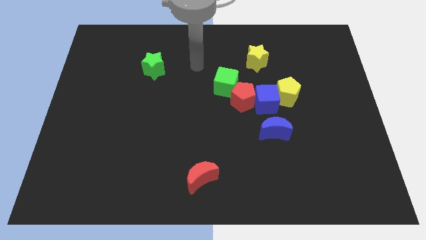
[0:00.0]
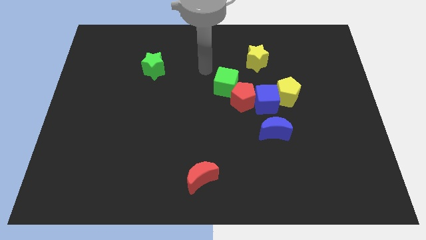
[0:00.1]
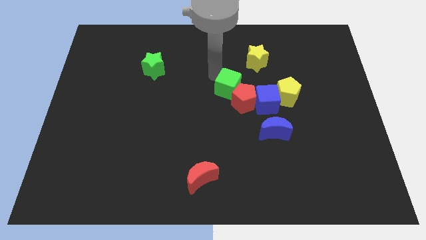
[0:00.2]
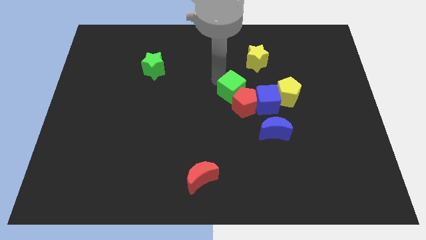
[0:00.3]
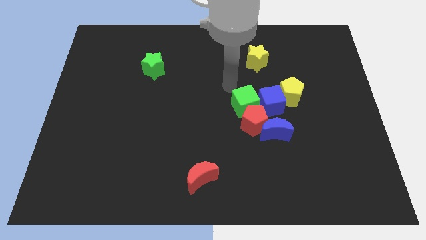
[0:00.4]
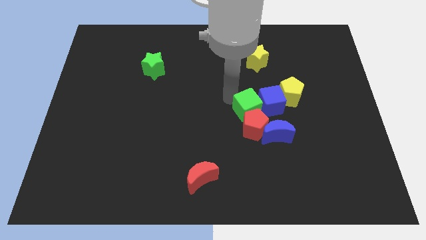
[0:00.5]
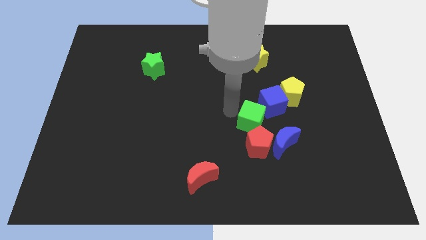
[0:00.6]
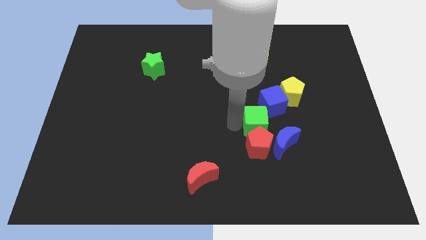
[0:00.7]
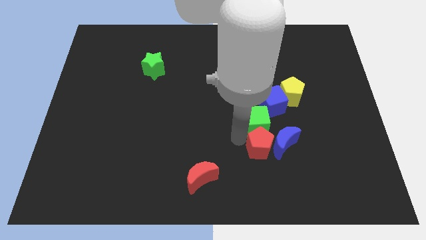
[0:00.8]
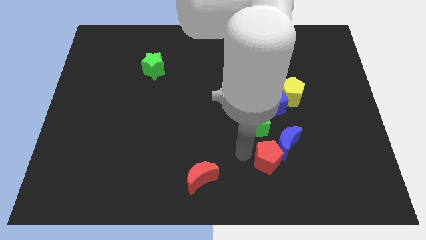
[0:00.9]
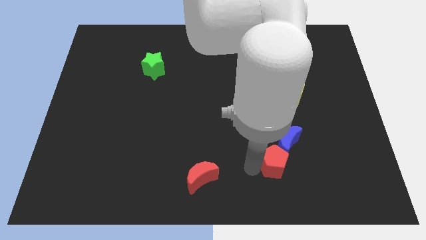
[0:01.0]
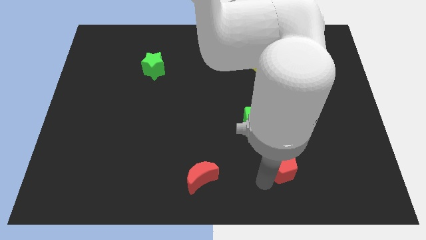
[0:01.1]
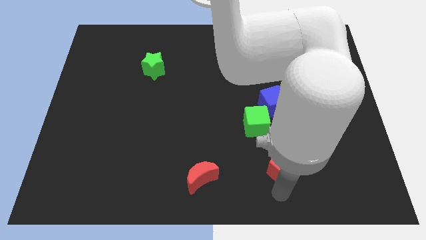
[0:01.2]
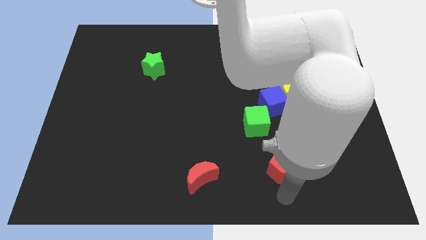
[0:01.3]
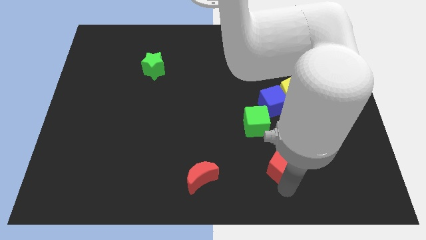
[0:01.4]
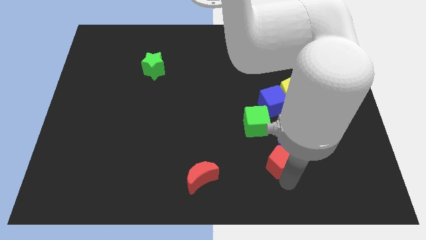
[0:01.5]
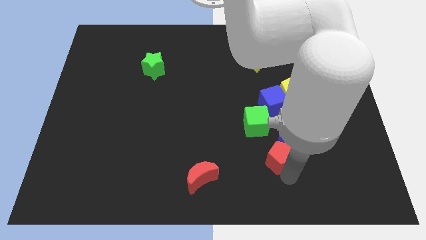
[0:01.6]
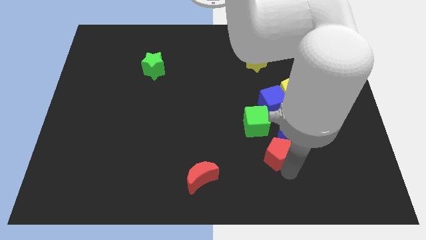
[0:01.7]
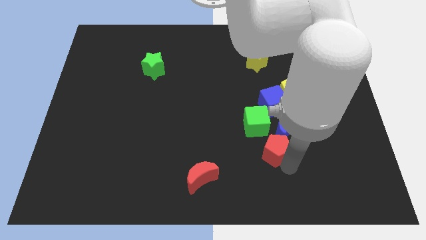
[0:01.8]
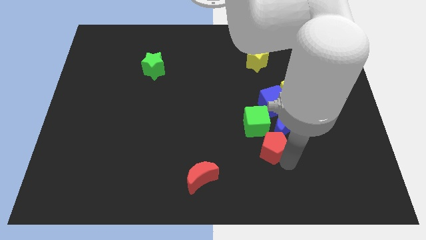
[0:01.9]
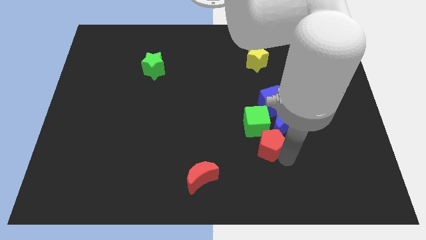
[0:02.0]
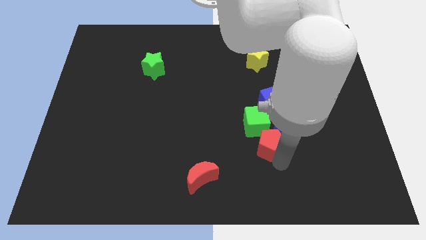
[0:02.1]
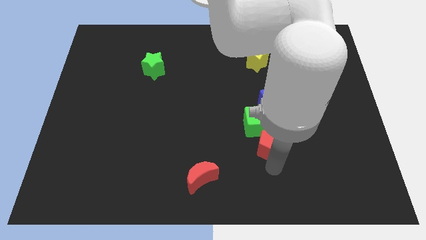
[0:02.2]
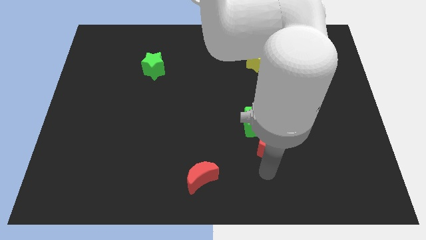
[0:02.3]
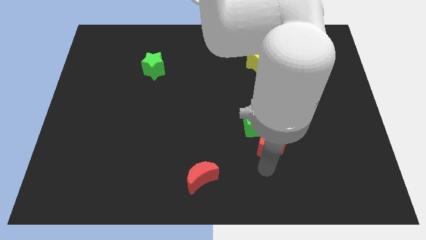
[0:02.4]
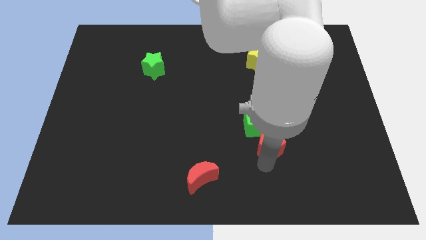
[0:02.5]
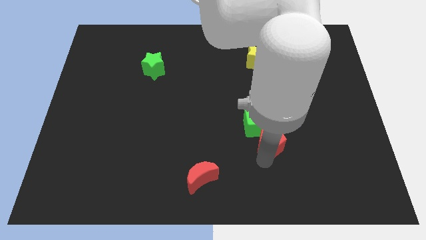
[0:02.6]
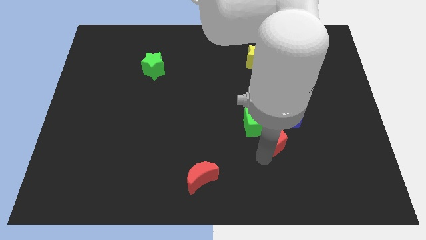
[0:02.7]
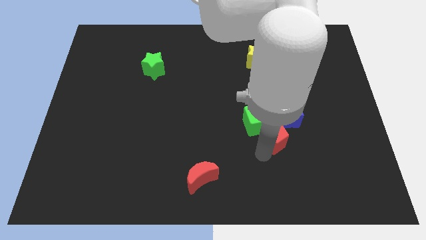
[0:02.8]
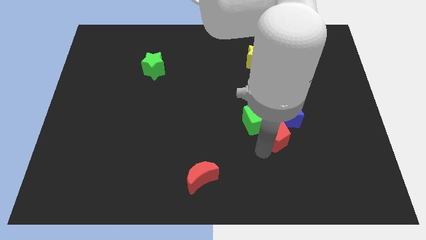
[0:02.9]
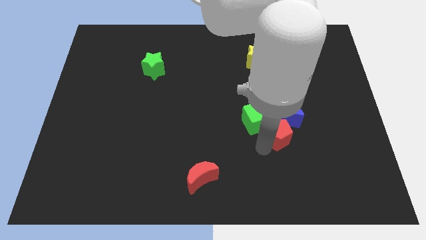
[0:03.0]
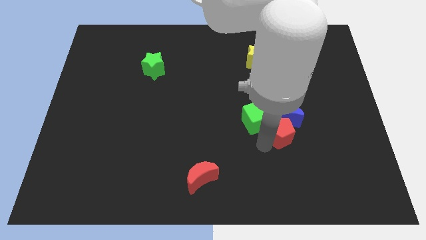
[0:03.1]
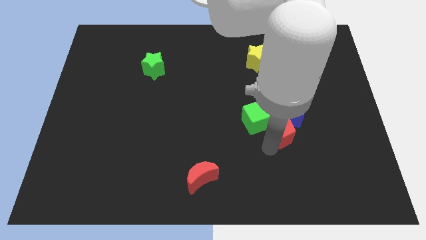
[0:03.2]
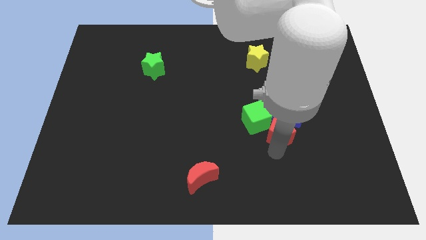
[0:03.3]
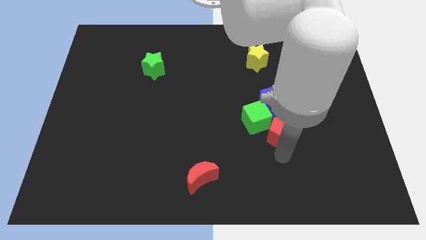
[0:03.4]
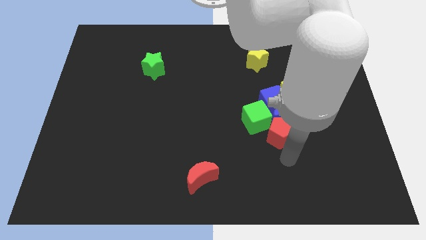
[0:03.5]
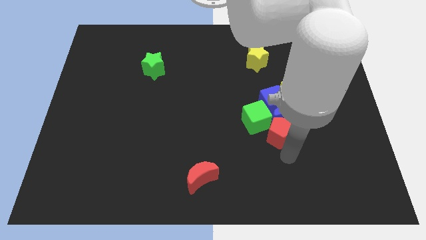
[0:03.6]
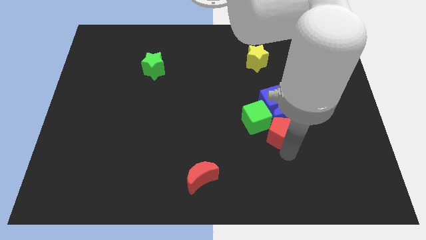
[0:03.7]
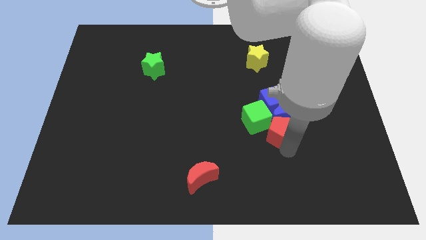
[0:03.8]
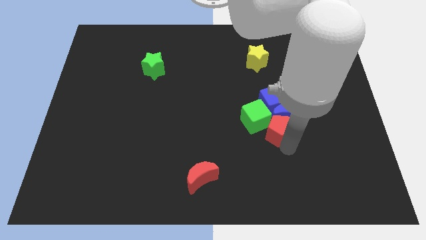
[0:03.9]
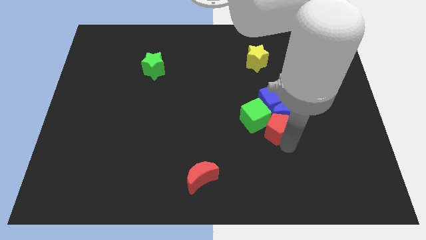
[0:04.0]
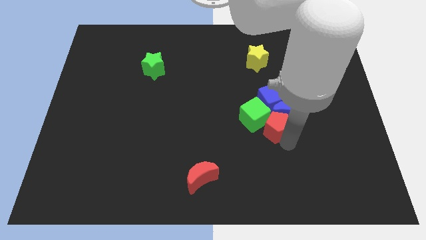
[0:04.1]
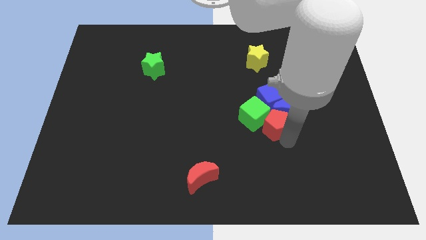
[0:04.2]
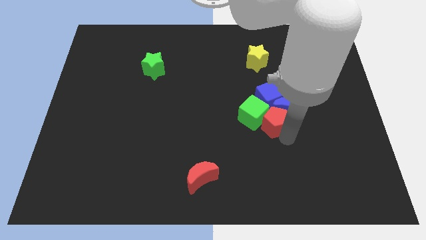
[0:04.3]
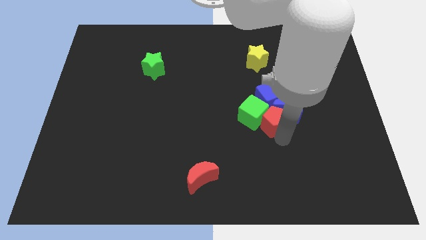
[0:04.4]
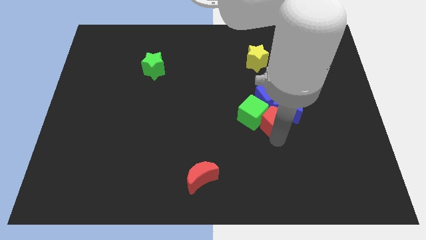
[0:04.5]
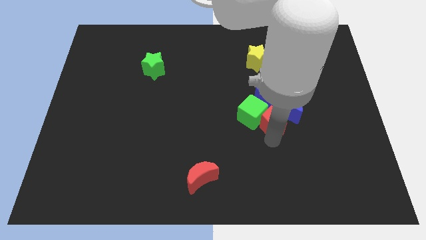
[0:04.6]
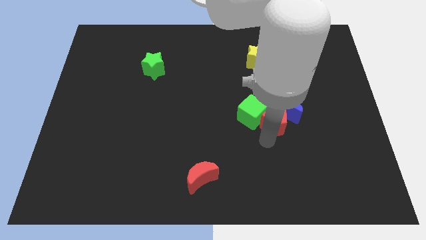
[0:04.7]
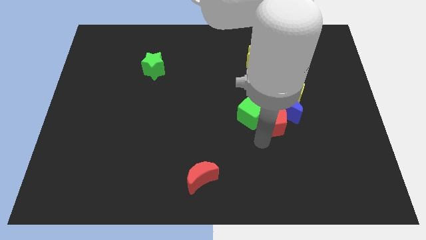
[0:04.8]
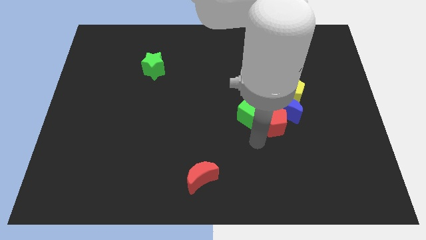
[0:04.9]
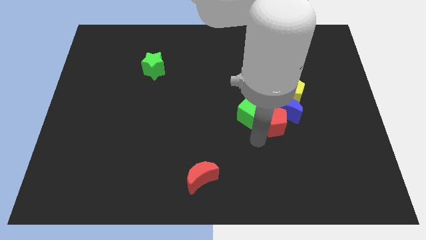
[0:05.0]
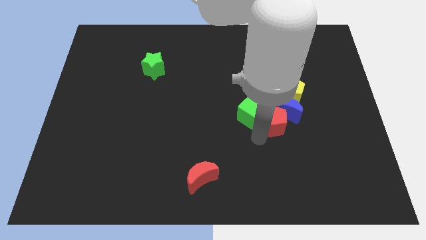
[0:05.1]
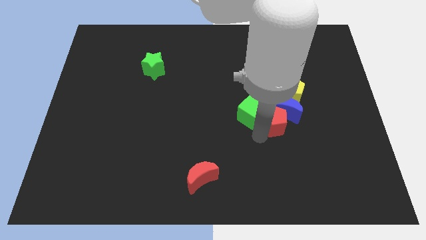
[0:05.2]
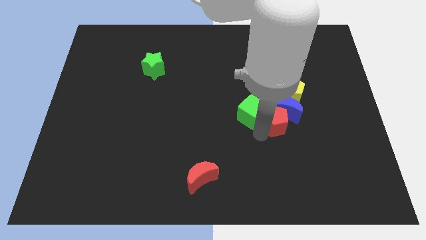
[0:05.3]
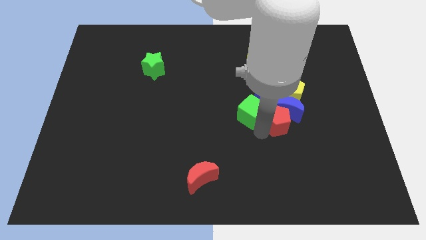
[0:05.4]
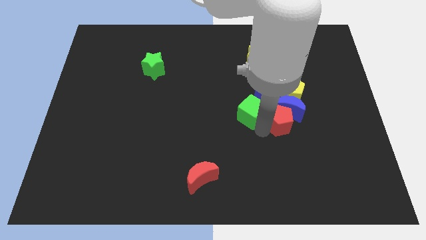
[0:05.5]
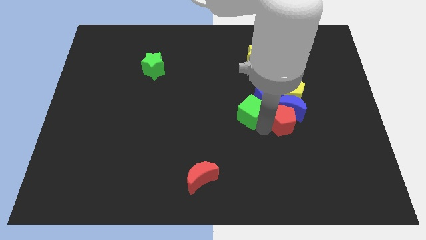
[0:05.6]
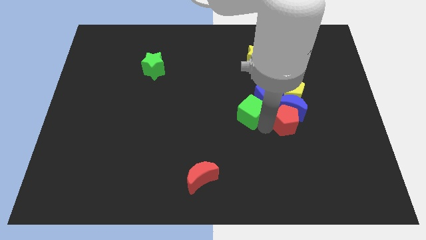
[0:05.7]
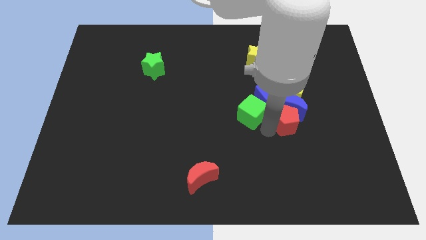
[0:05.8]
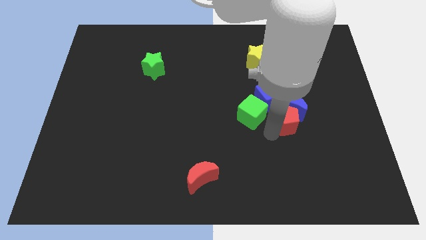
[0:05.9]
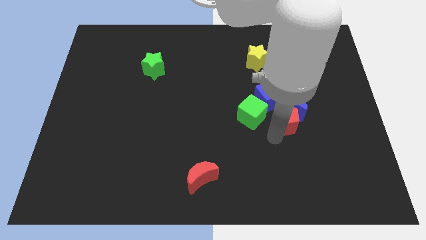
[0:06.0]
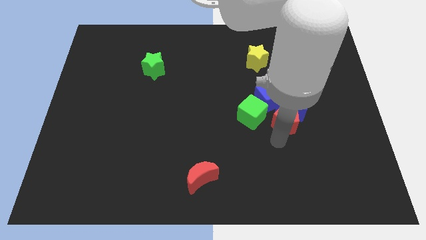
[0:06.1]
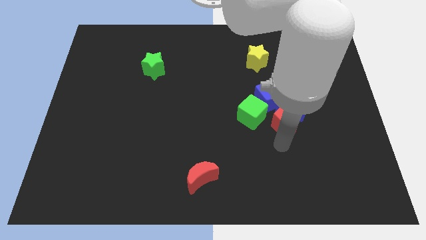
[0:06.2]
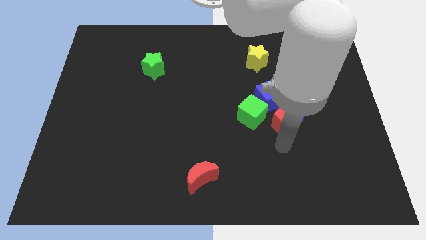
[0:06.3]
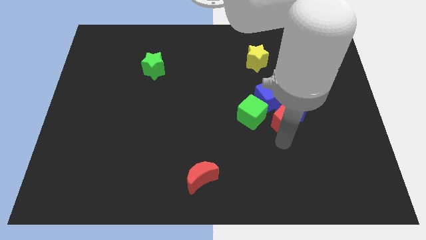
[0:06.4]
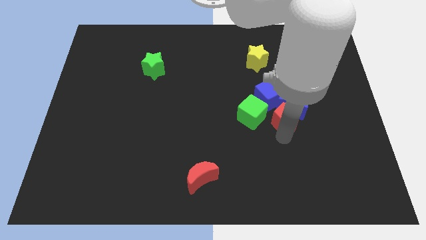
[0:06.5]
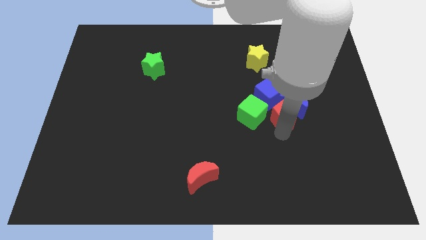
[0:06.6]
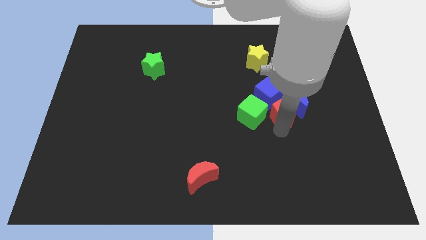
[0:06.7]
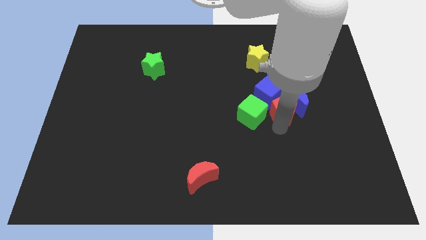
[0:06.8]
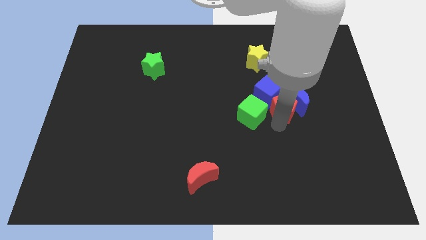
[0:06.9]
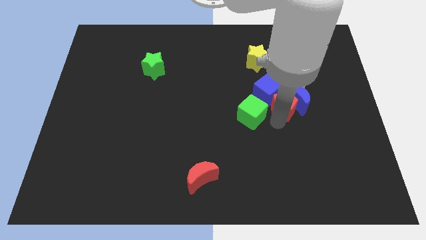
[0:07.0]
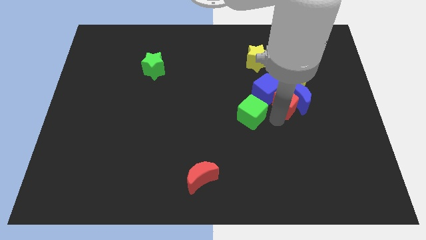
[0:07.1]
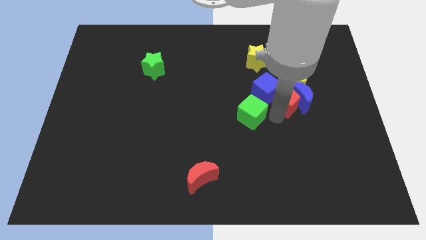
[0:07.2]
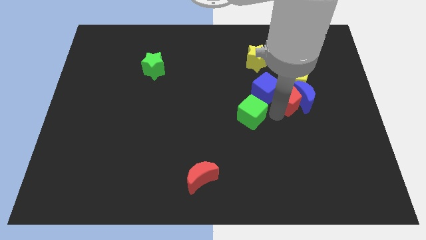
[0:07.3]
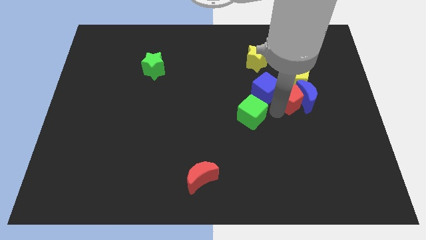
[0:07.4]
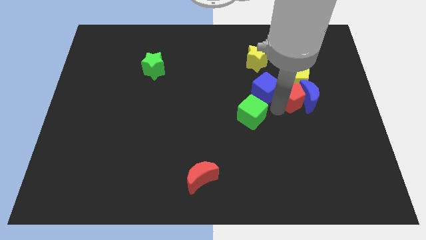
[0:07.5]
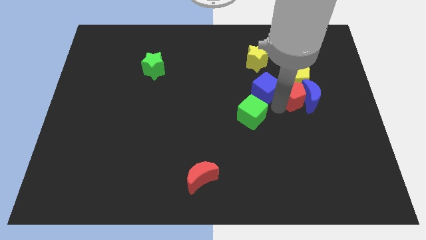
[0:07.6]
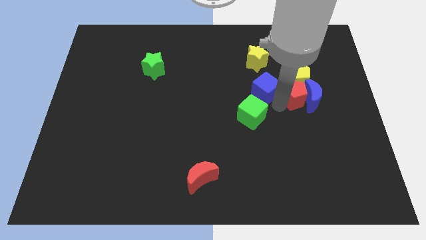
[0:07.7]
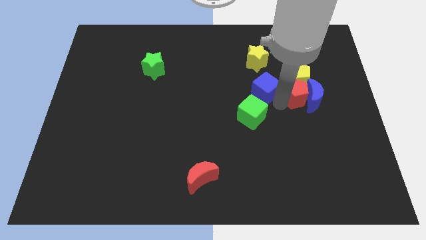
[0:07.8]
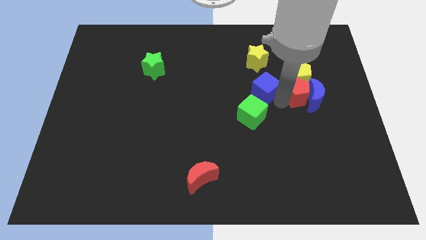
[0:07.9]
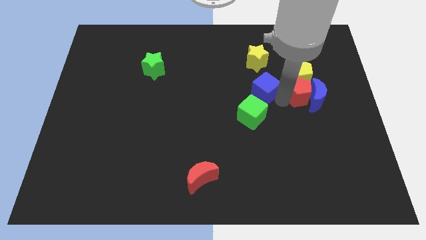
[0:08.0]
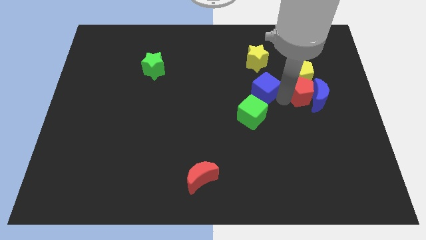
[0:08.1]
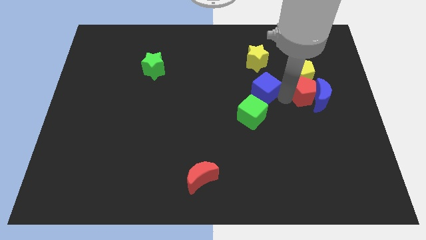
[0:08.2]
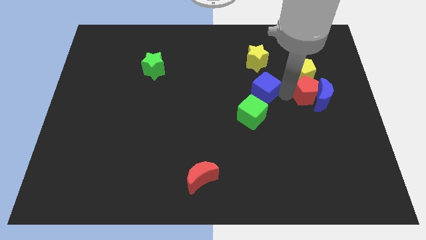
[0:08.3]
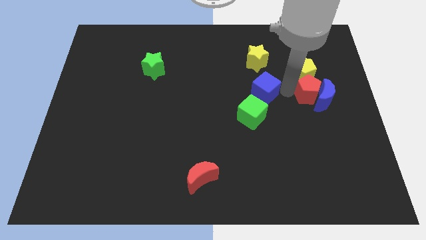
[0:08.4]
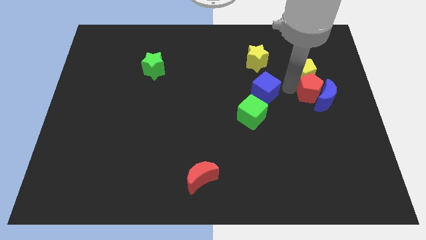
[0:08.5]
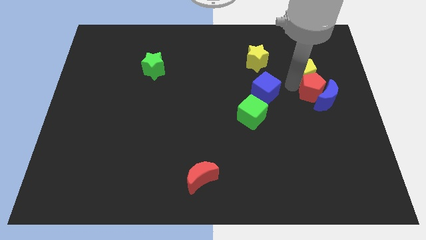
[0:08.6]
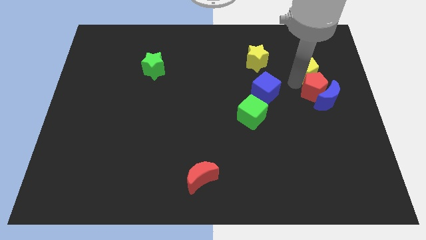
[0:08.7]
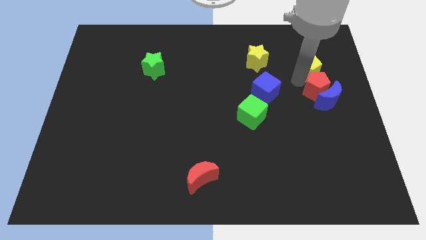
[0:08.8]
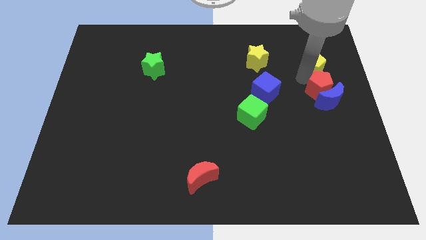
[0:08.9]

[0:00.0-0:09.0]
push the red pentagon to the right side of the board
